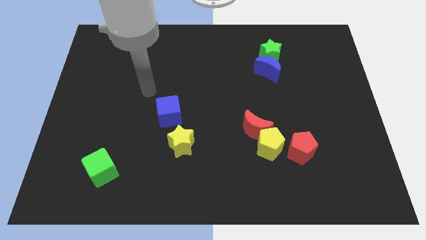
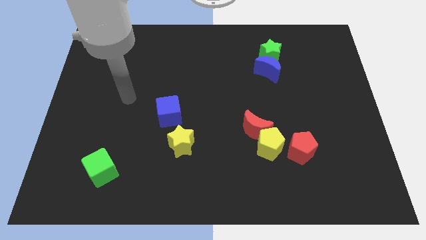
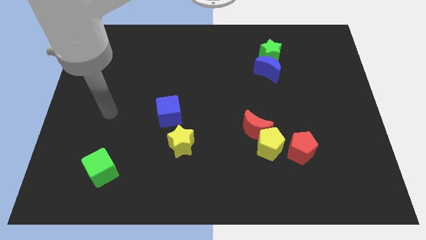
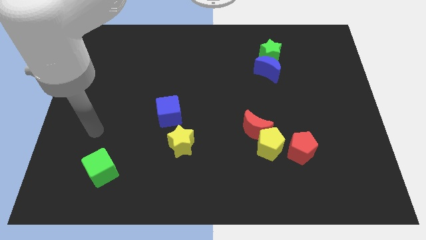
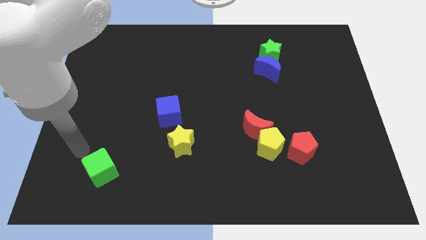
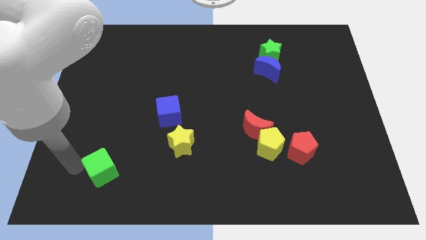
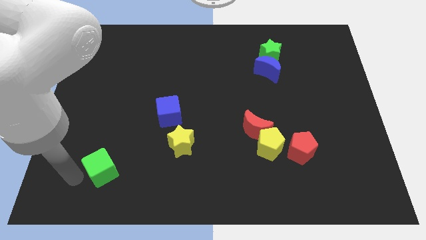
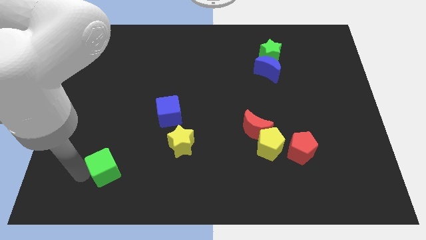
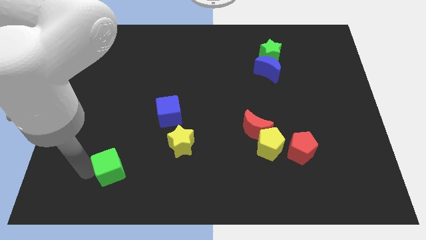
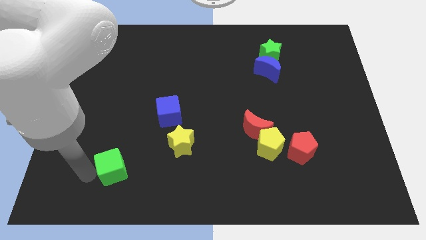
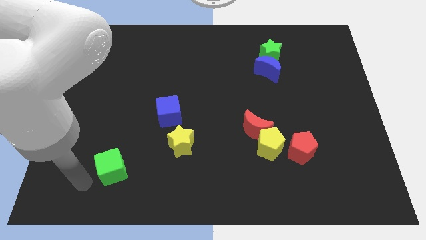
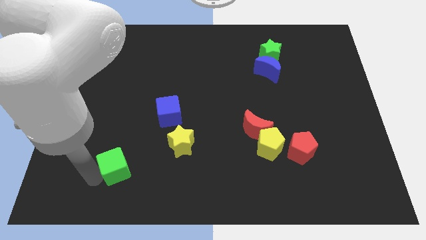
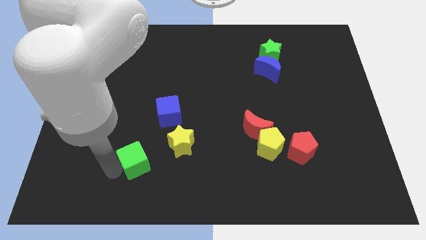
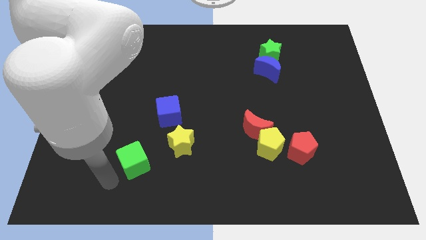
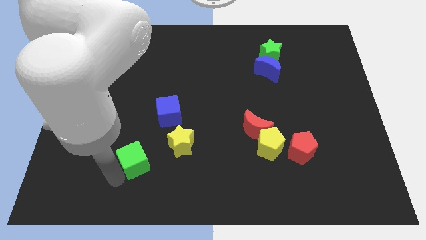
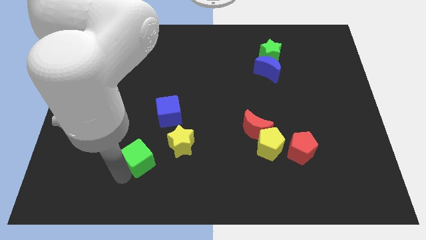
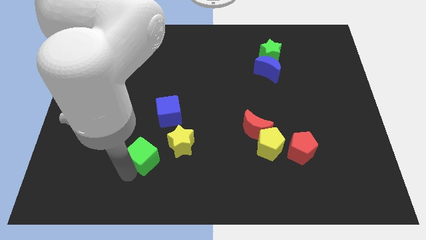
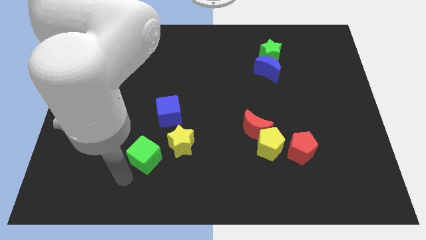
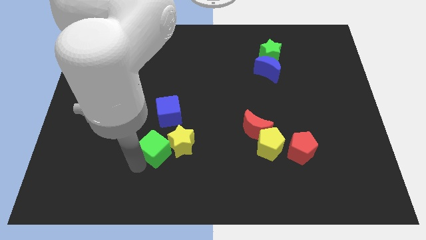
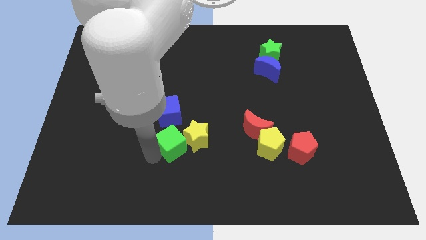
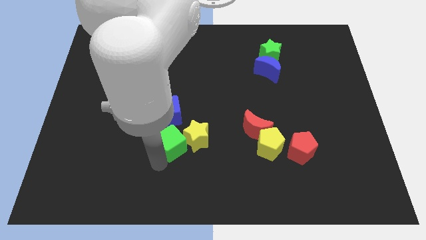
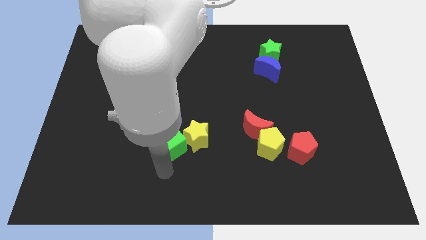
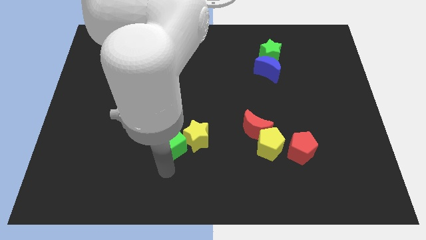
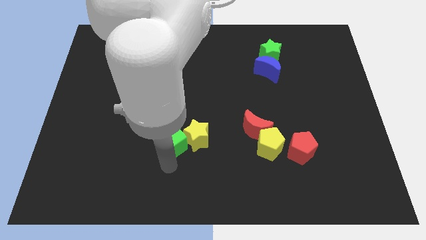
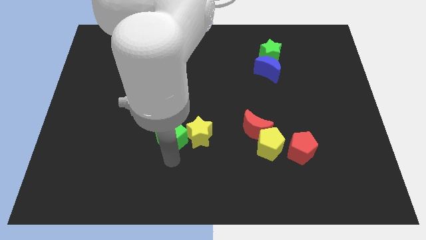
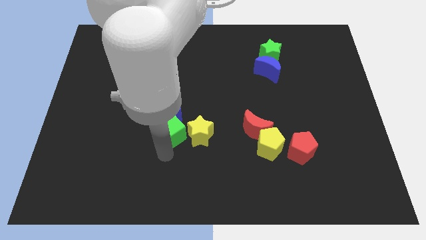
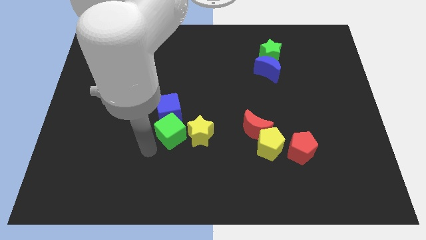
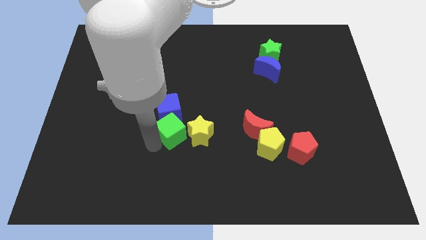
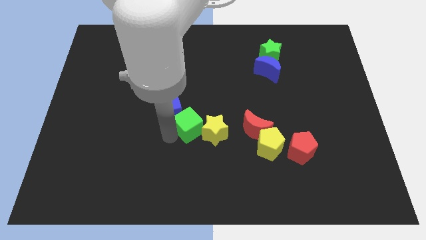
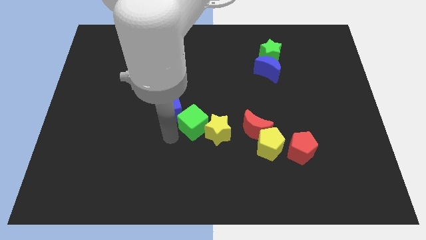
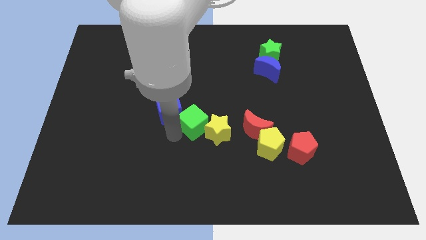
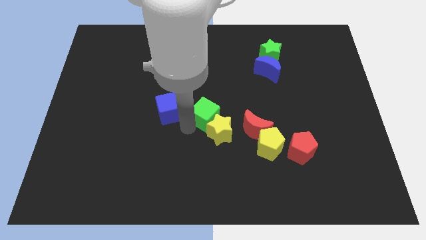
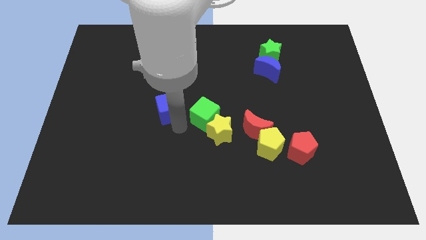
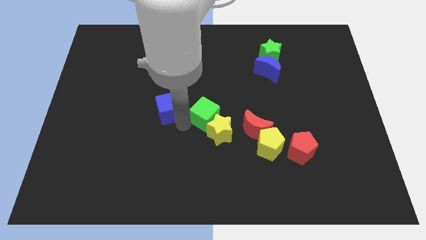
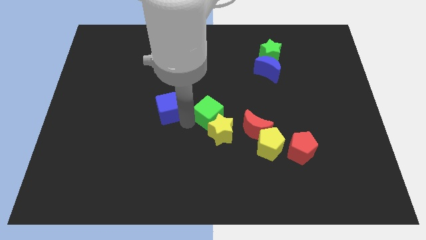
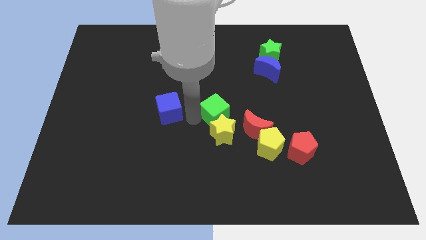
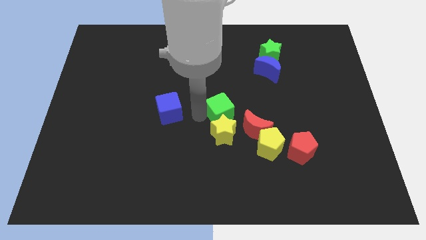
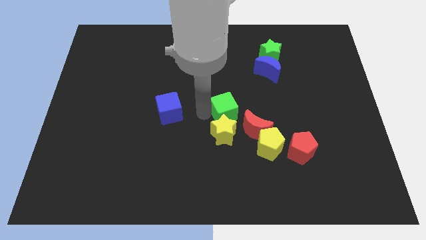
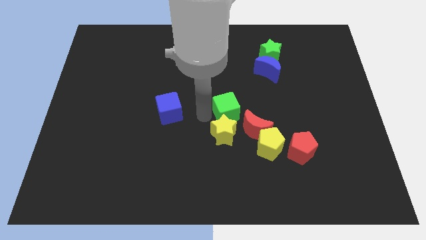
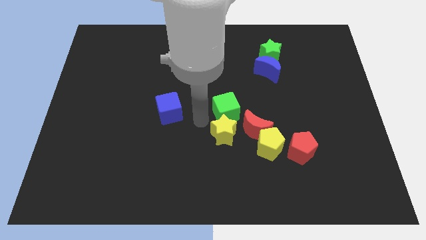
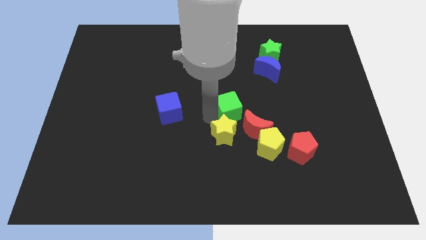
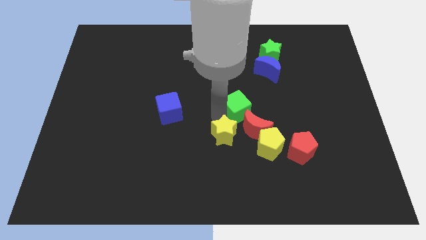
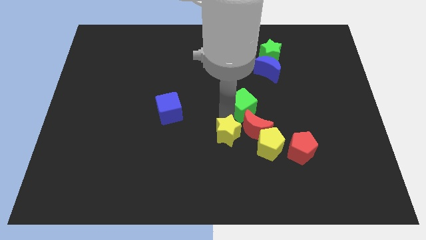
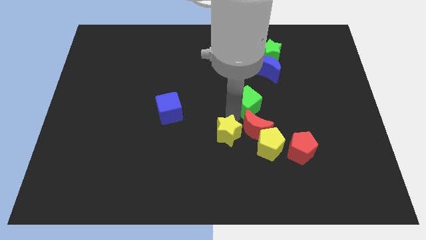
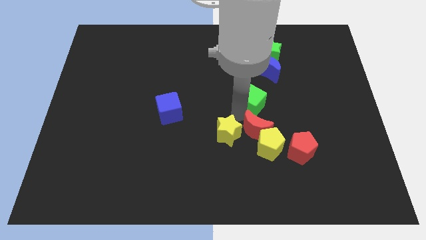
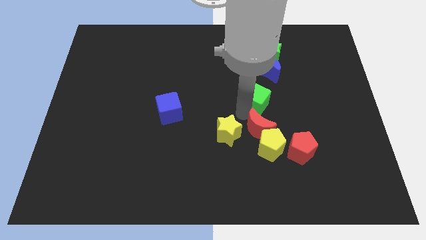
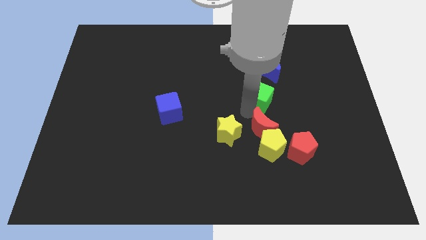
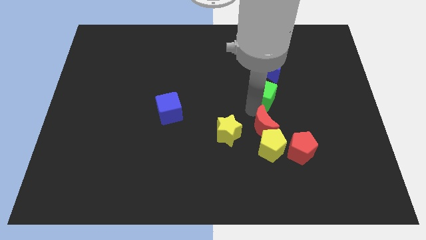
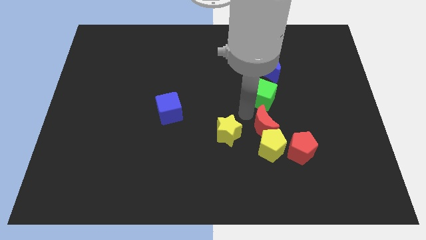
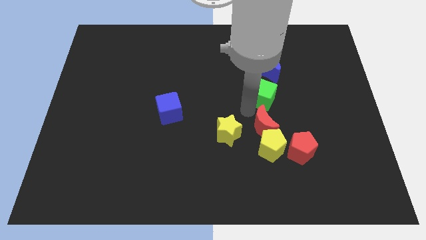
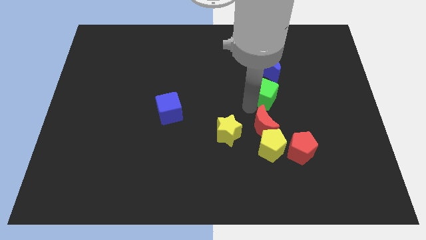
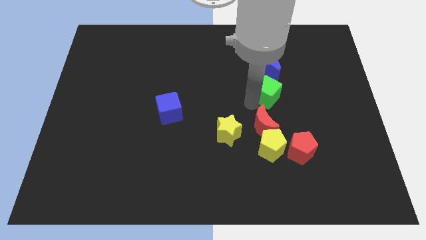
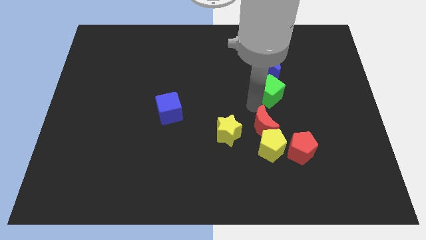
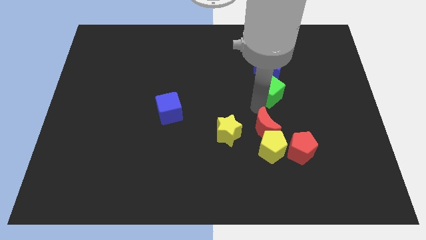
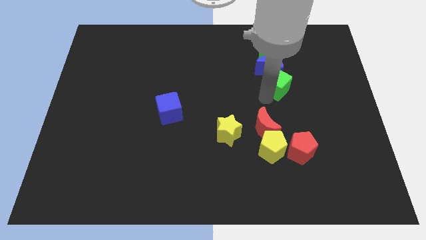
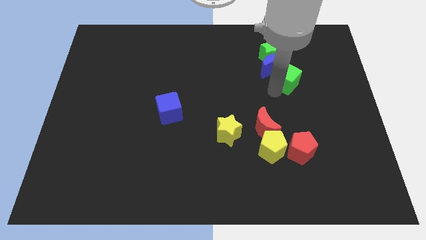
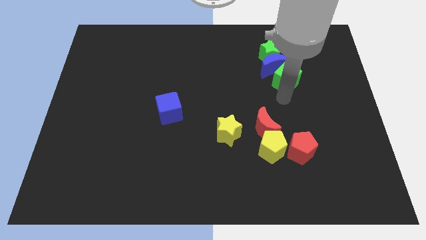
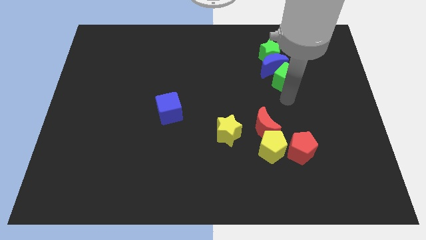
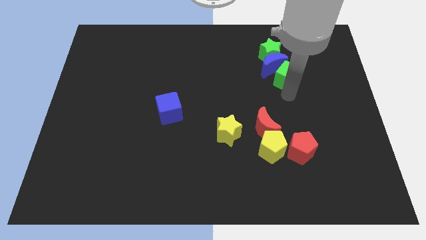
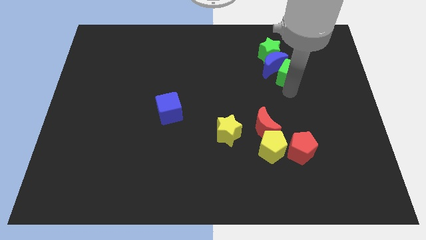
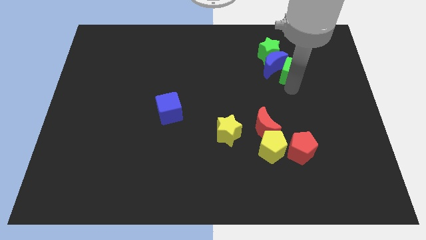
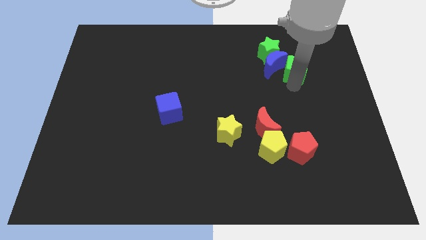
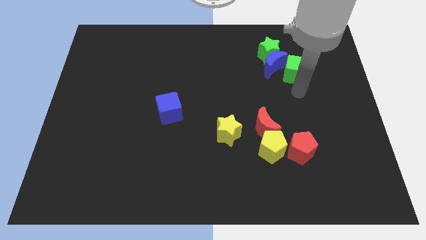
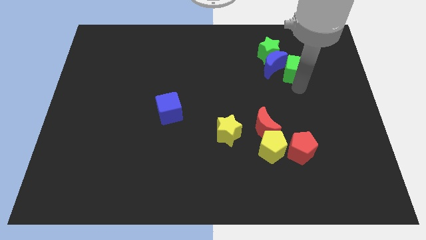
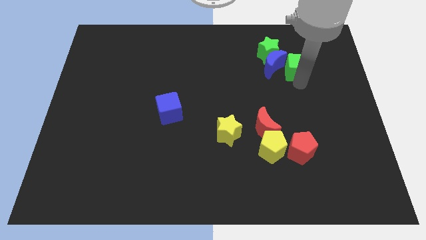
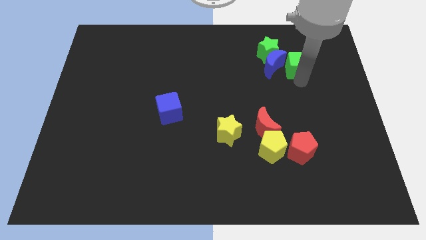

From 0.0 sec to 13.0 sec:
put the green cube to the top right of the blue moon
